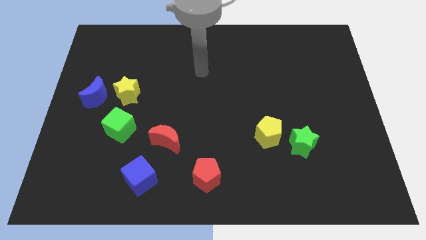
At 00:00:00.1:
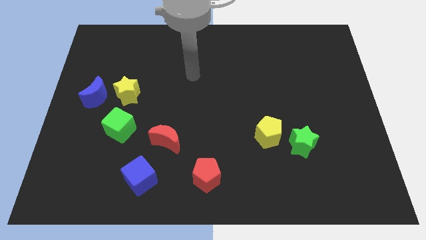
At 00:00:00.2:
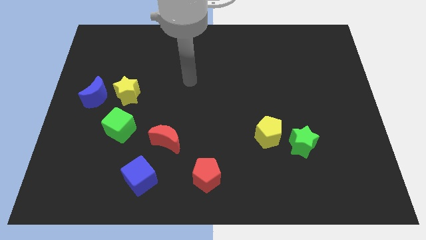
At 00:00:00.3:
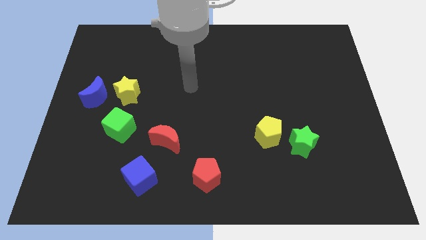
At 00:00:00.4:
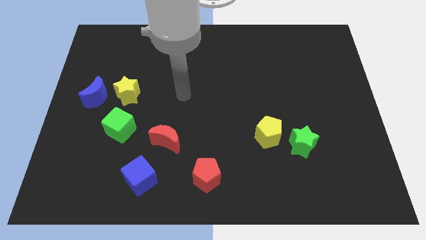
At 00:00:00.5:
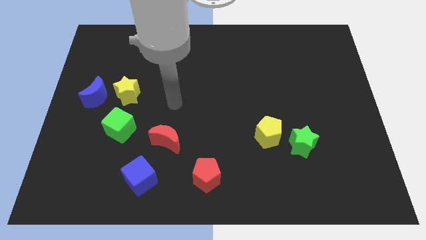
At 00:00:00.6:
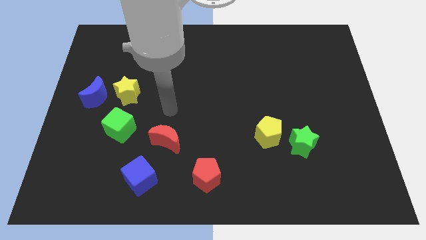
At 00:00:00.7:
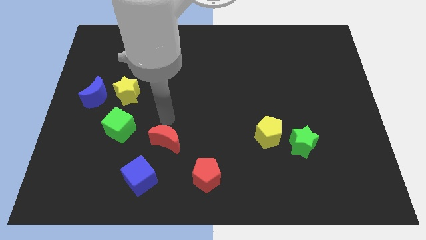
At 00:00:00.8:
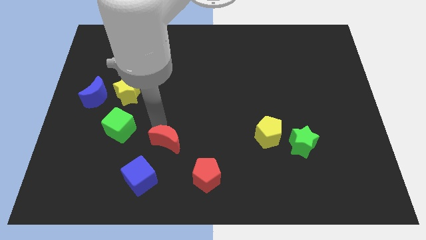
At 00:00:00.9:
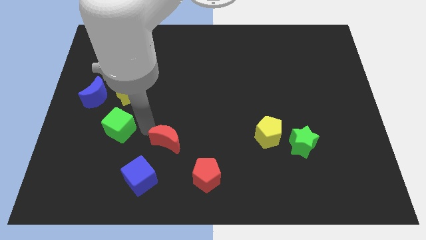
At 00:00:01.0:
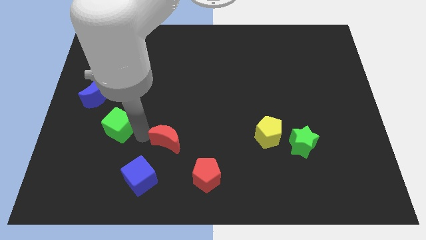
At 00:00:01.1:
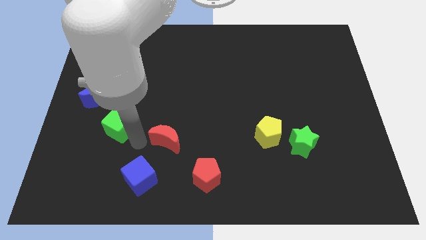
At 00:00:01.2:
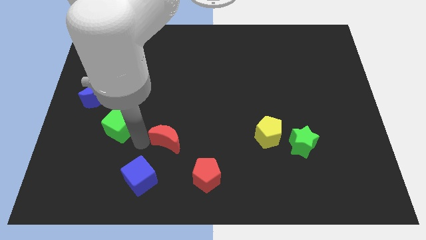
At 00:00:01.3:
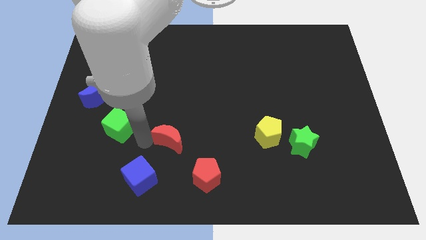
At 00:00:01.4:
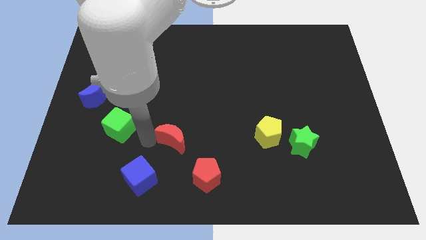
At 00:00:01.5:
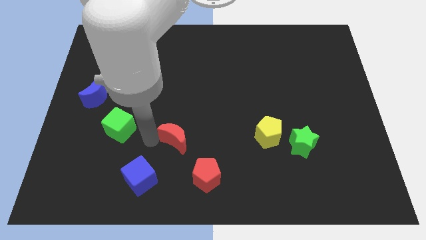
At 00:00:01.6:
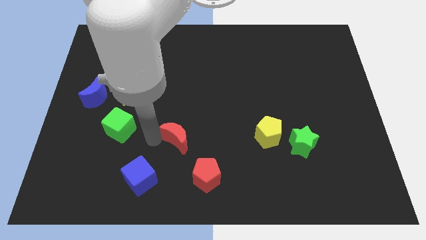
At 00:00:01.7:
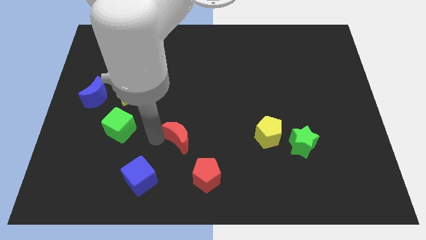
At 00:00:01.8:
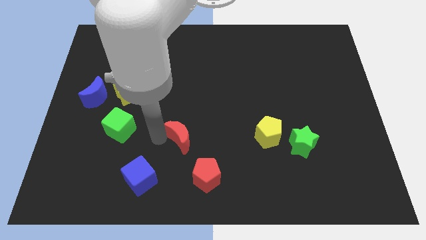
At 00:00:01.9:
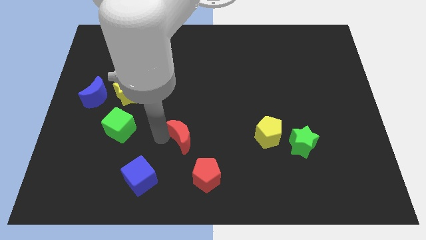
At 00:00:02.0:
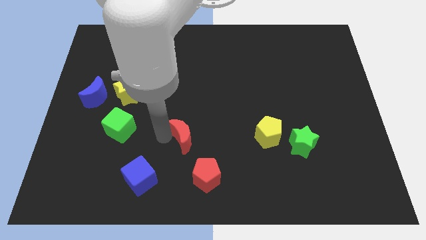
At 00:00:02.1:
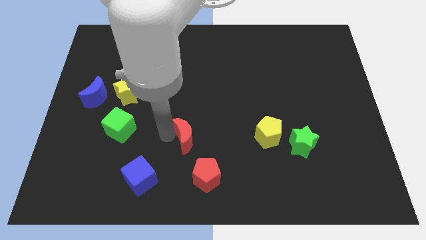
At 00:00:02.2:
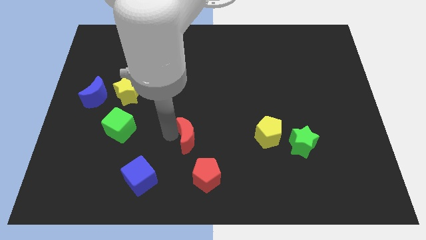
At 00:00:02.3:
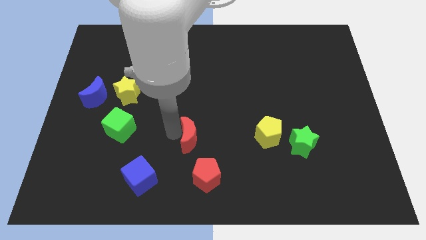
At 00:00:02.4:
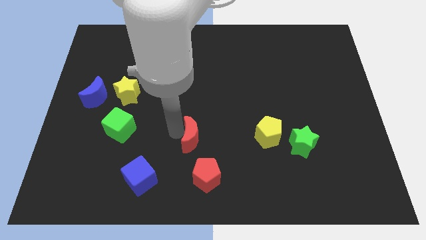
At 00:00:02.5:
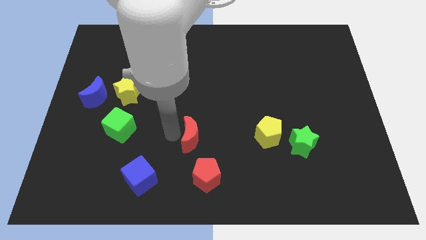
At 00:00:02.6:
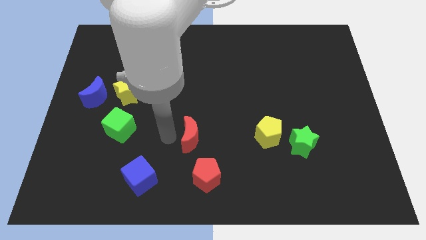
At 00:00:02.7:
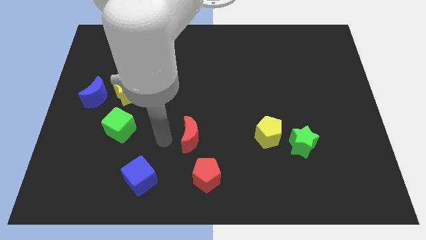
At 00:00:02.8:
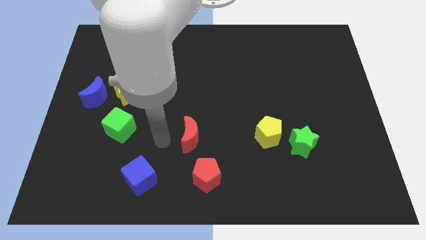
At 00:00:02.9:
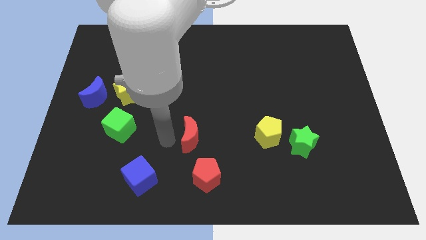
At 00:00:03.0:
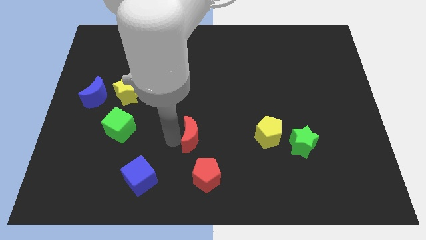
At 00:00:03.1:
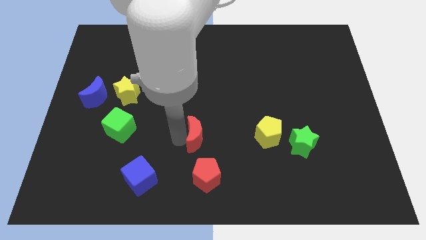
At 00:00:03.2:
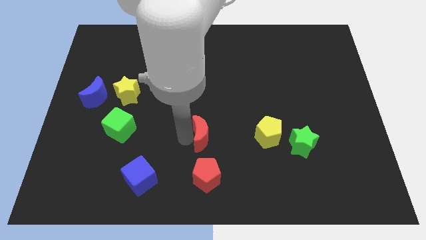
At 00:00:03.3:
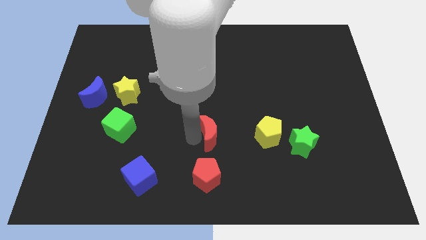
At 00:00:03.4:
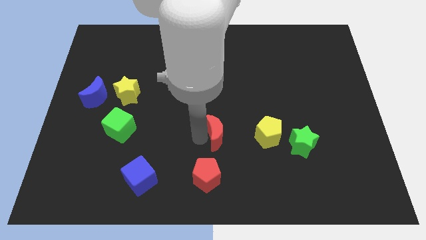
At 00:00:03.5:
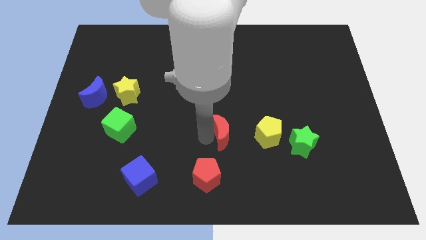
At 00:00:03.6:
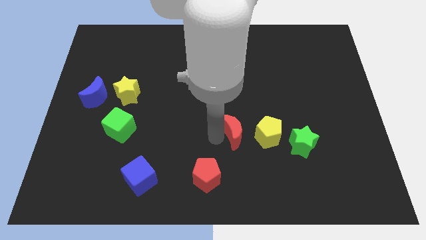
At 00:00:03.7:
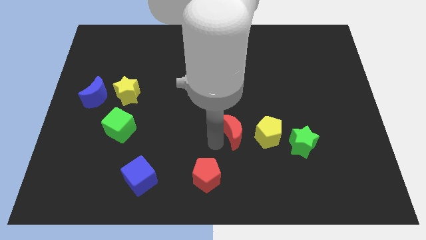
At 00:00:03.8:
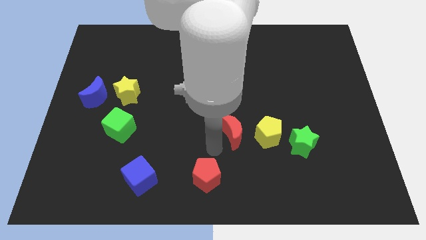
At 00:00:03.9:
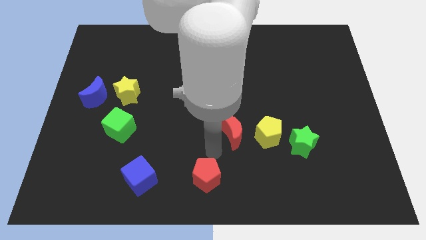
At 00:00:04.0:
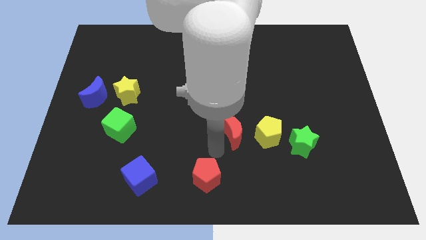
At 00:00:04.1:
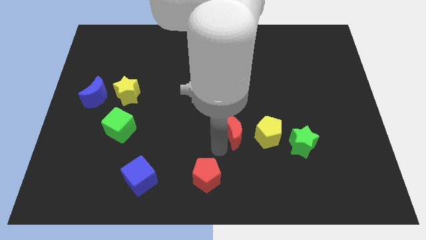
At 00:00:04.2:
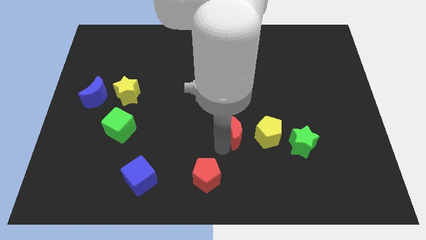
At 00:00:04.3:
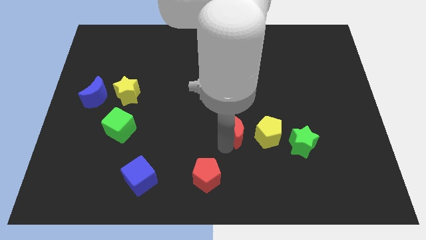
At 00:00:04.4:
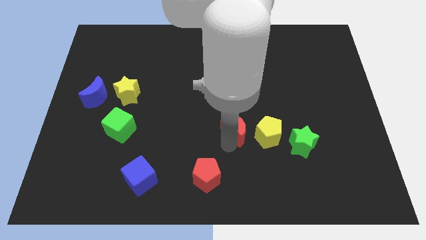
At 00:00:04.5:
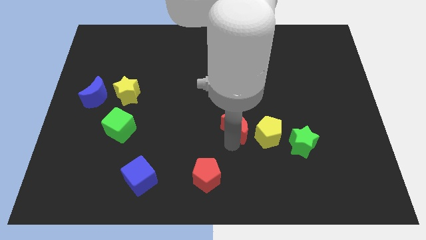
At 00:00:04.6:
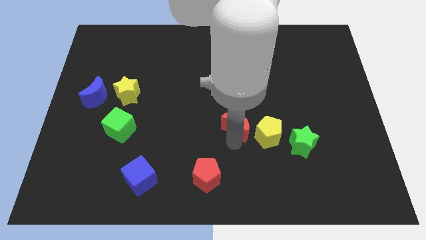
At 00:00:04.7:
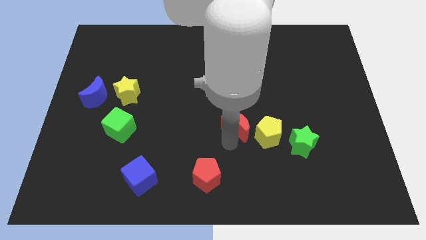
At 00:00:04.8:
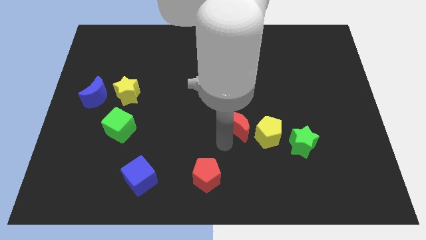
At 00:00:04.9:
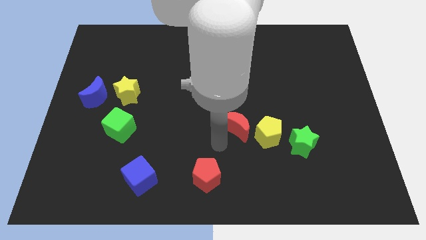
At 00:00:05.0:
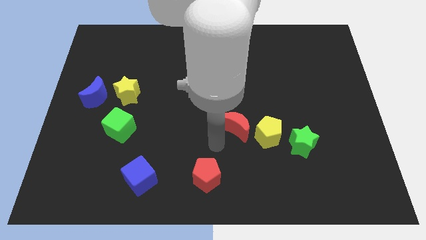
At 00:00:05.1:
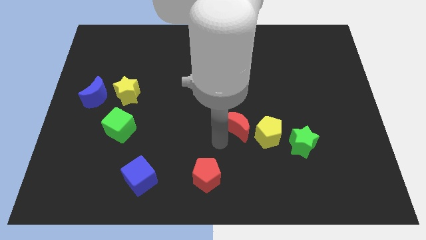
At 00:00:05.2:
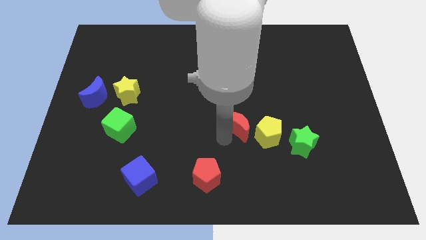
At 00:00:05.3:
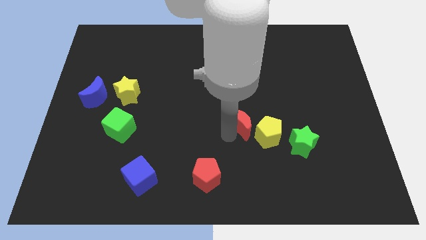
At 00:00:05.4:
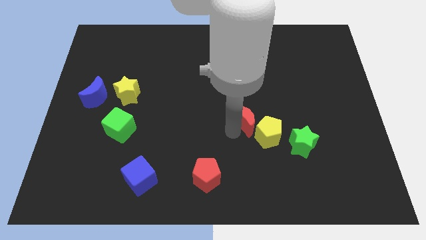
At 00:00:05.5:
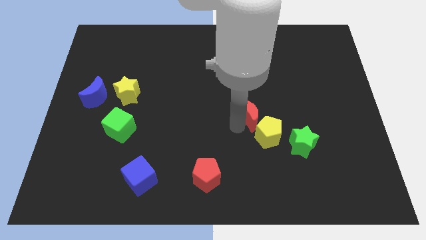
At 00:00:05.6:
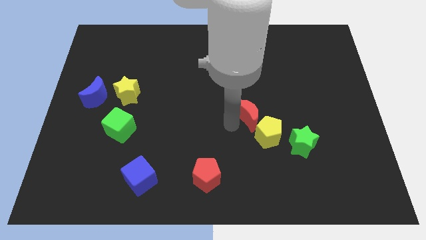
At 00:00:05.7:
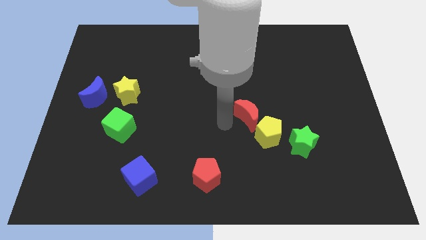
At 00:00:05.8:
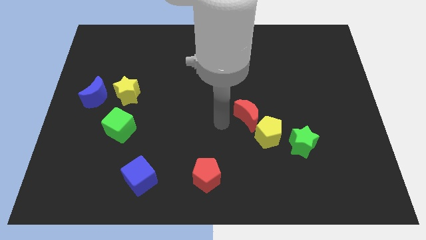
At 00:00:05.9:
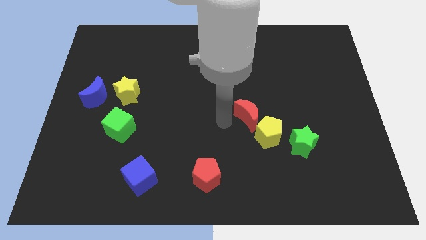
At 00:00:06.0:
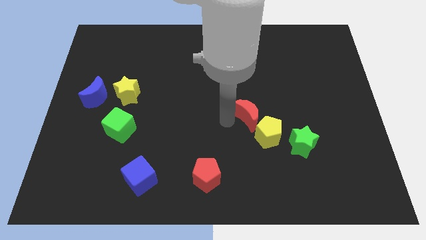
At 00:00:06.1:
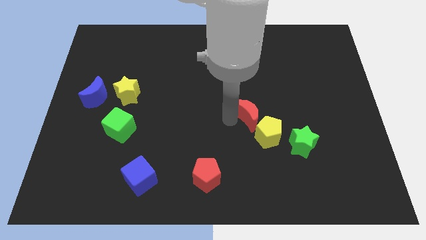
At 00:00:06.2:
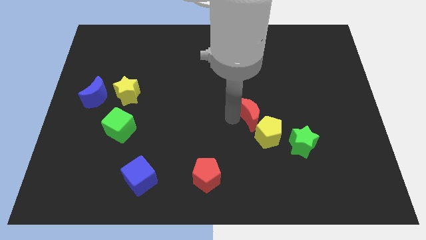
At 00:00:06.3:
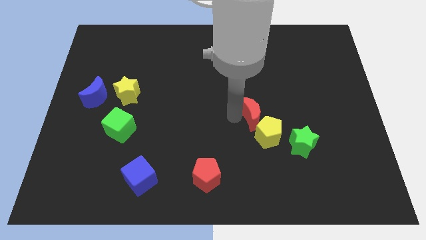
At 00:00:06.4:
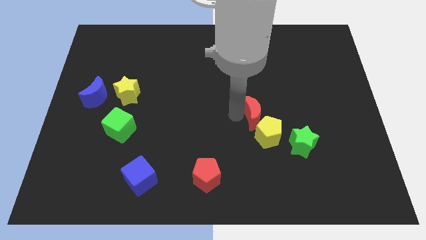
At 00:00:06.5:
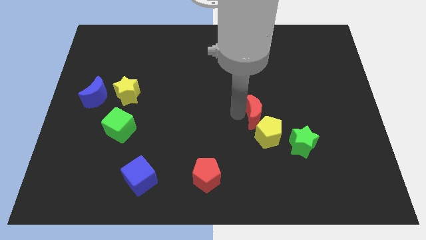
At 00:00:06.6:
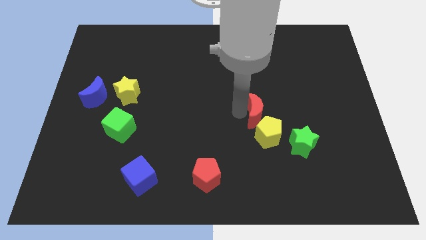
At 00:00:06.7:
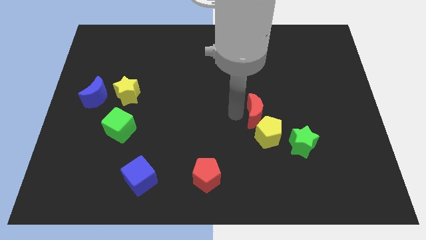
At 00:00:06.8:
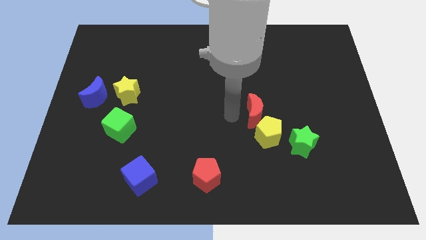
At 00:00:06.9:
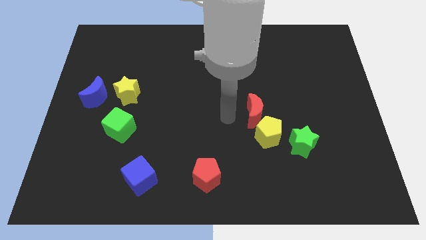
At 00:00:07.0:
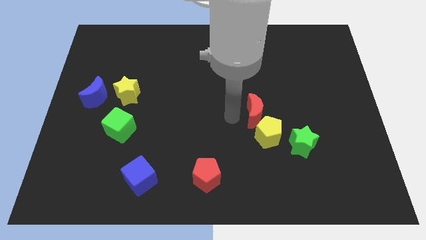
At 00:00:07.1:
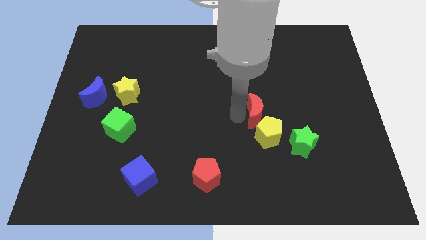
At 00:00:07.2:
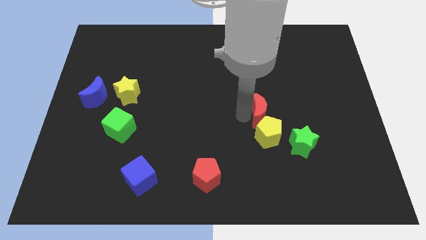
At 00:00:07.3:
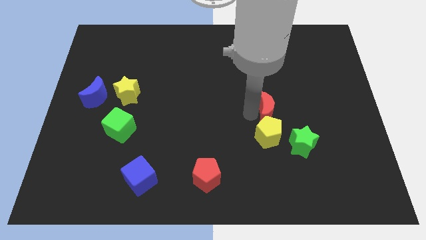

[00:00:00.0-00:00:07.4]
move the red moon diagonally up and to the right of the yellow pentagon
